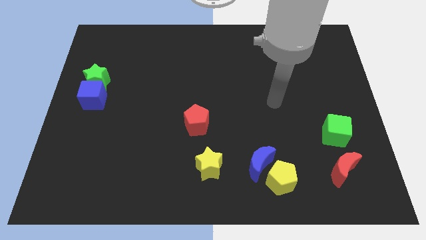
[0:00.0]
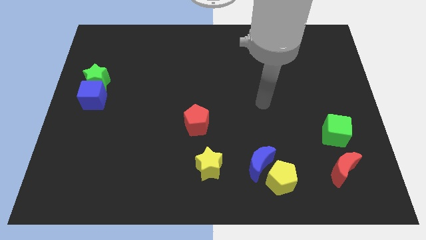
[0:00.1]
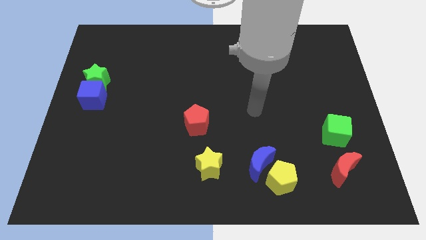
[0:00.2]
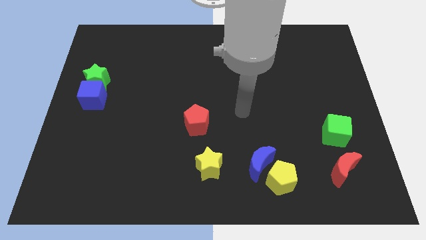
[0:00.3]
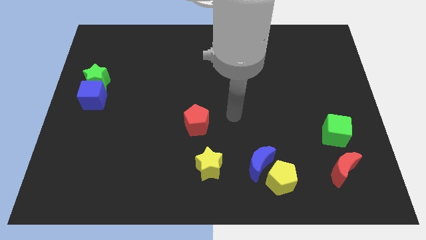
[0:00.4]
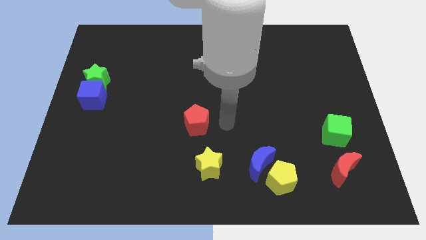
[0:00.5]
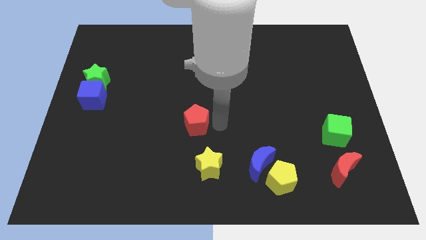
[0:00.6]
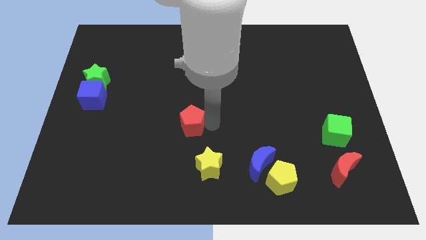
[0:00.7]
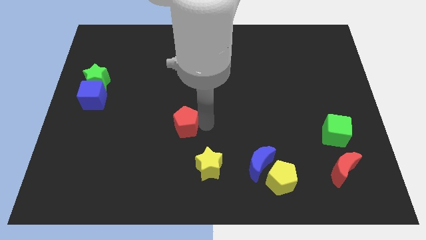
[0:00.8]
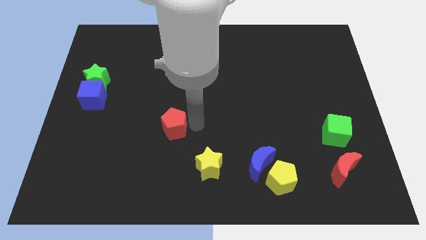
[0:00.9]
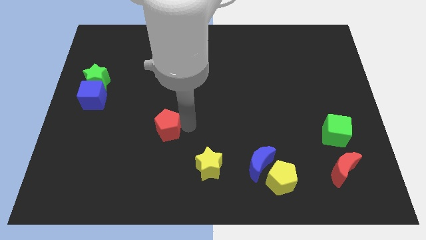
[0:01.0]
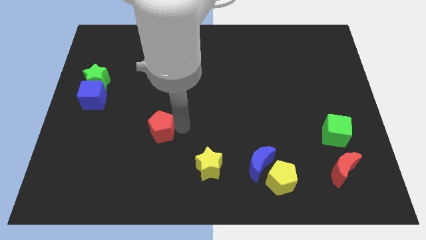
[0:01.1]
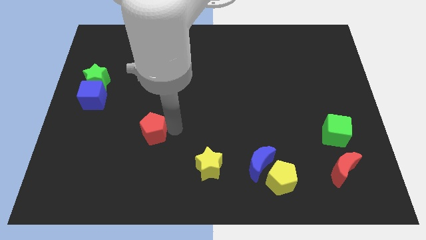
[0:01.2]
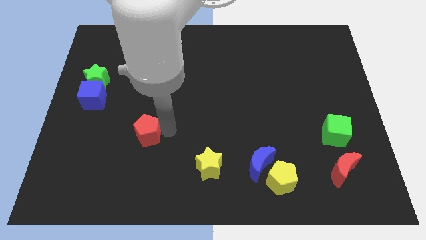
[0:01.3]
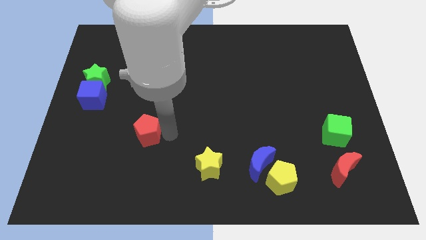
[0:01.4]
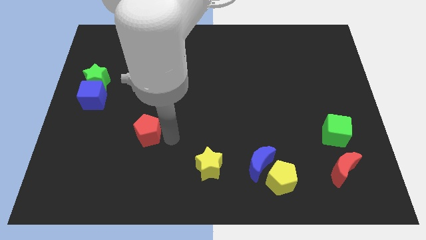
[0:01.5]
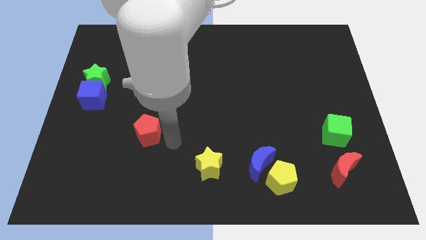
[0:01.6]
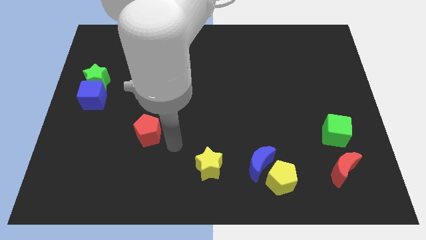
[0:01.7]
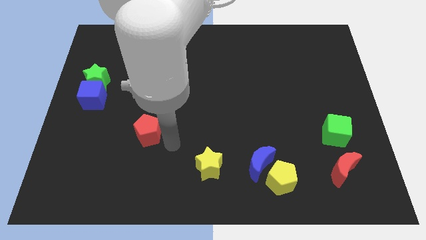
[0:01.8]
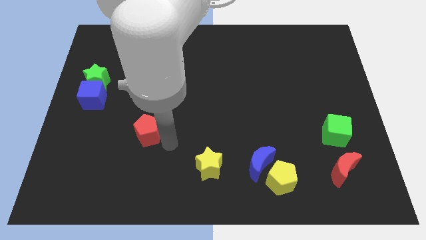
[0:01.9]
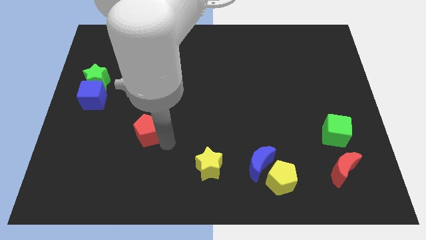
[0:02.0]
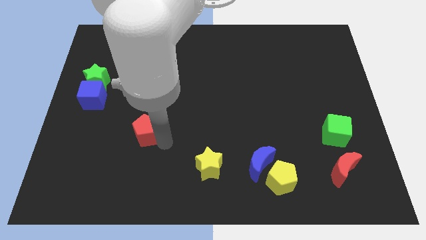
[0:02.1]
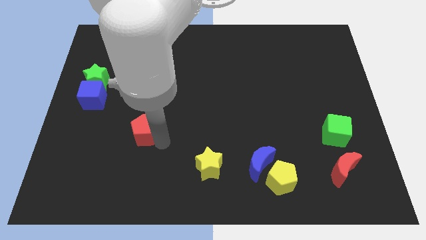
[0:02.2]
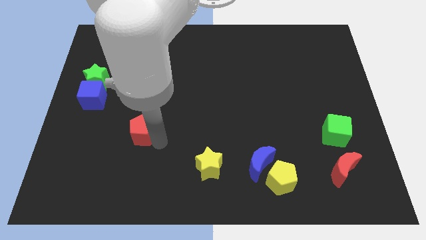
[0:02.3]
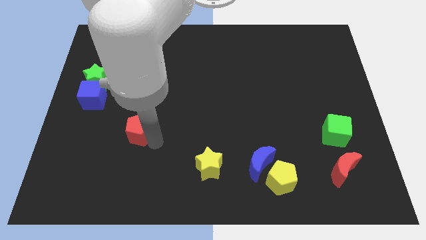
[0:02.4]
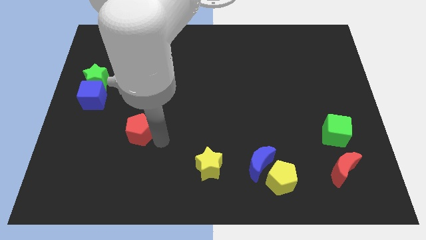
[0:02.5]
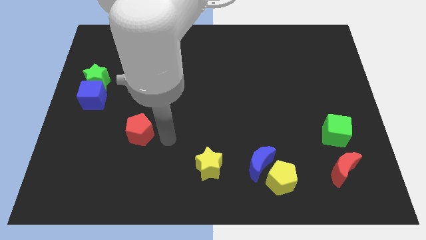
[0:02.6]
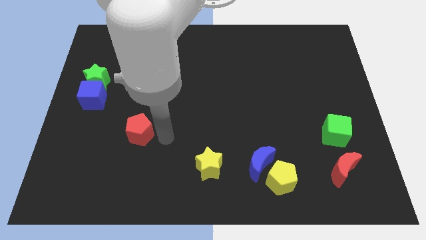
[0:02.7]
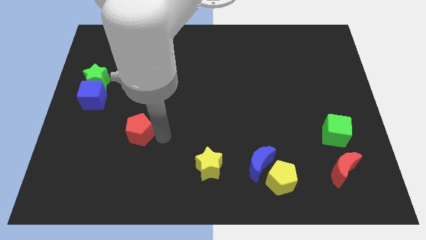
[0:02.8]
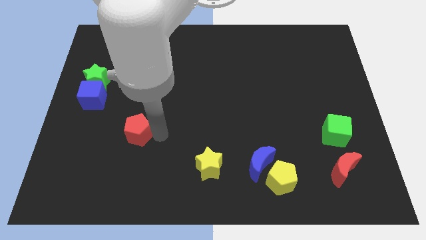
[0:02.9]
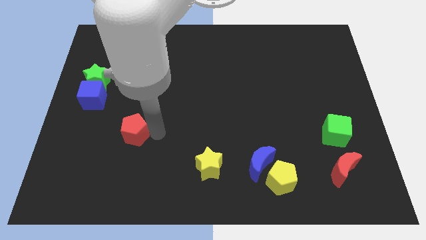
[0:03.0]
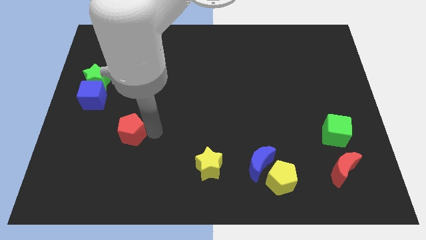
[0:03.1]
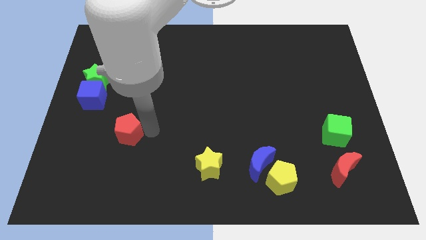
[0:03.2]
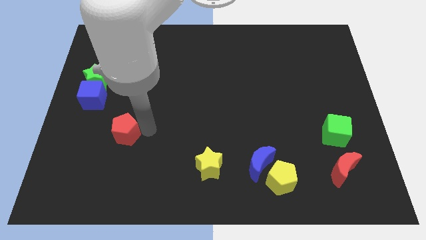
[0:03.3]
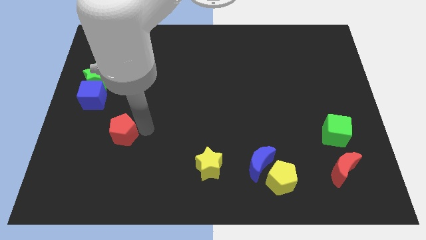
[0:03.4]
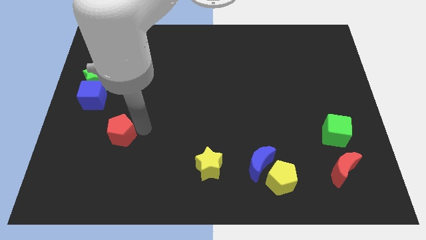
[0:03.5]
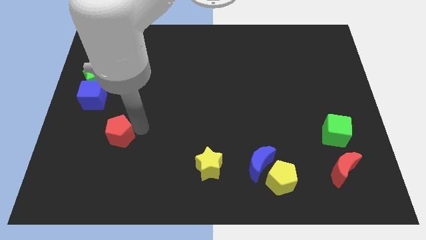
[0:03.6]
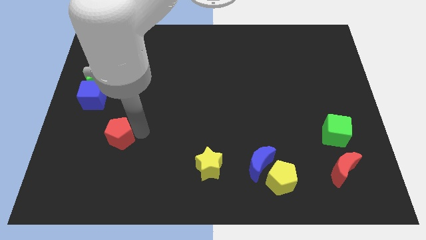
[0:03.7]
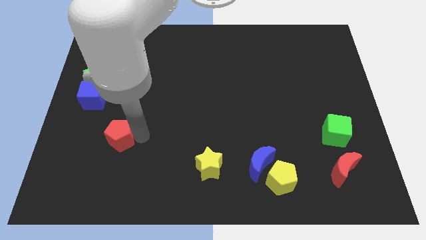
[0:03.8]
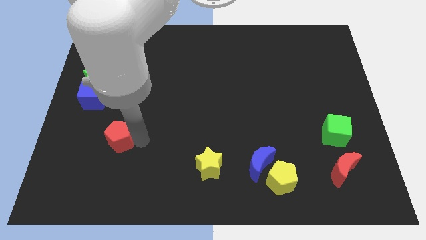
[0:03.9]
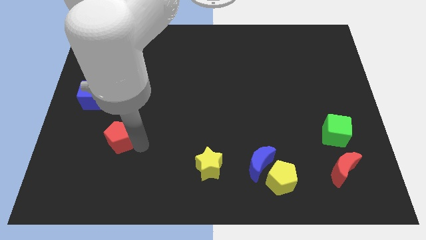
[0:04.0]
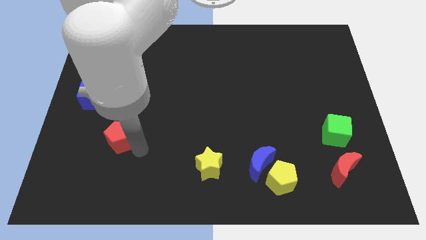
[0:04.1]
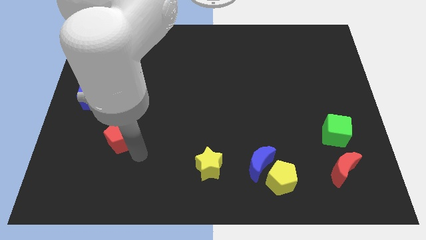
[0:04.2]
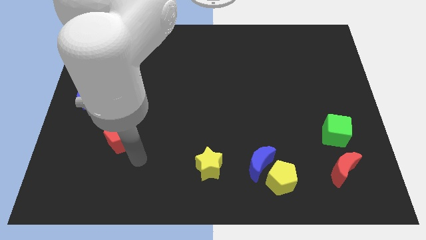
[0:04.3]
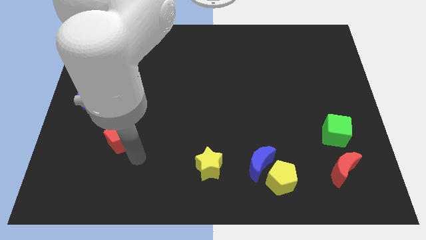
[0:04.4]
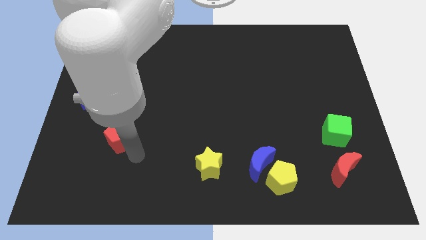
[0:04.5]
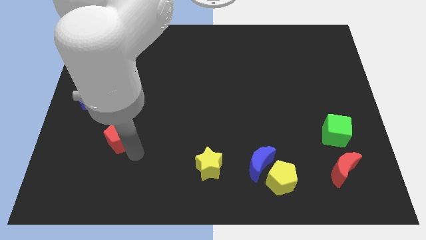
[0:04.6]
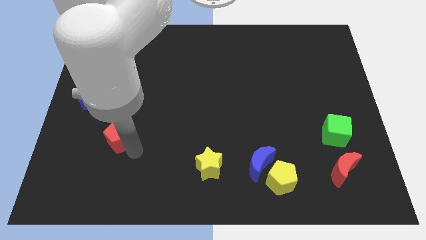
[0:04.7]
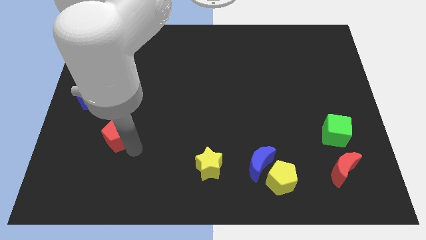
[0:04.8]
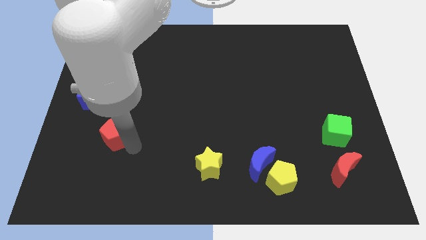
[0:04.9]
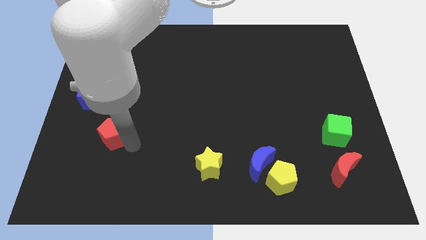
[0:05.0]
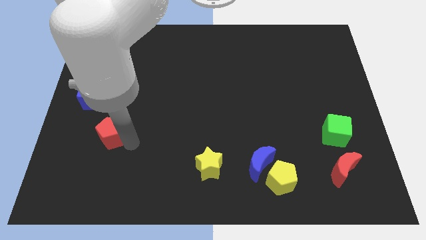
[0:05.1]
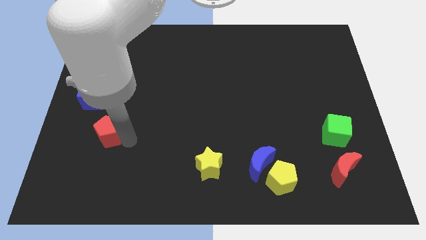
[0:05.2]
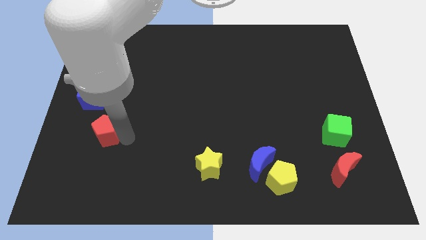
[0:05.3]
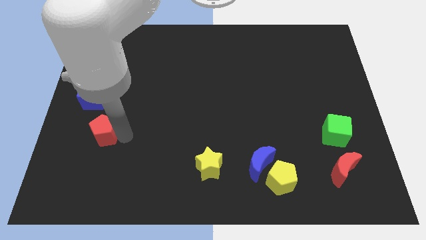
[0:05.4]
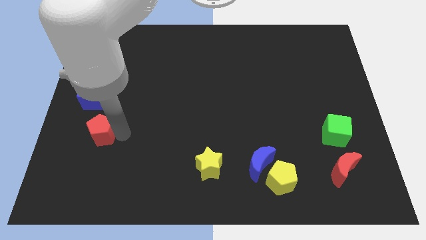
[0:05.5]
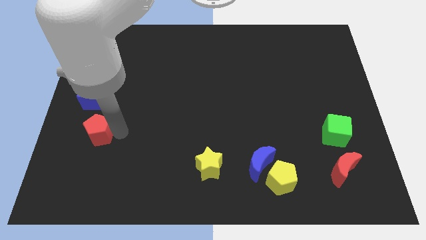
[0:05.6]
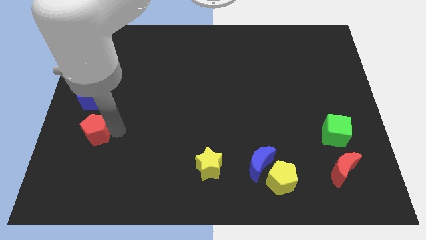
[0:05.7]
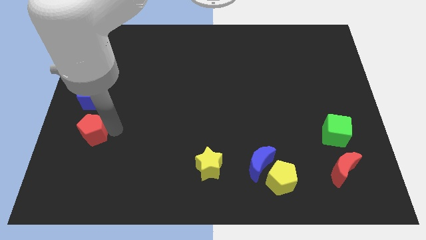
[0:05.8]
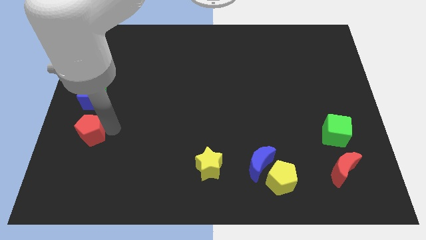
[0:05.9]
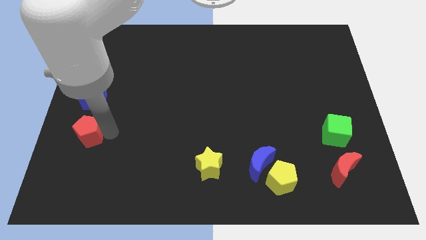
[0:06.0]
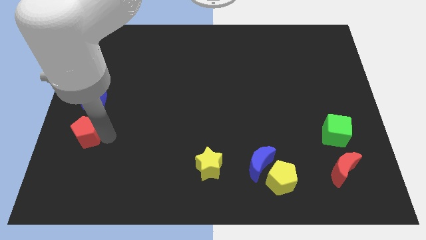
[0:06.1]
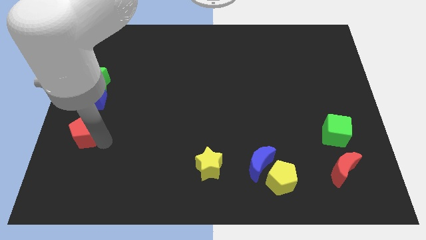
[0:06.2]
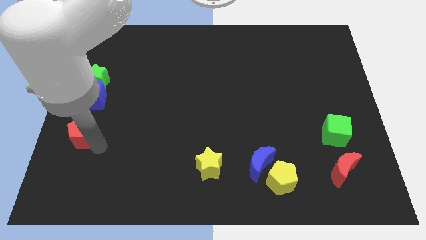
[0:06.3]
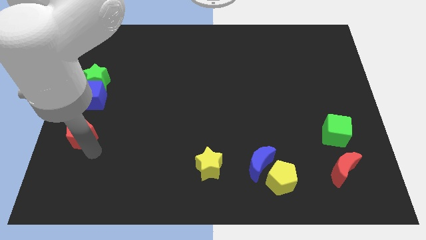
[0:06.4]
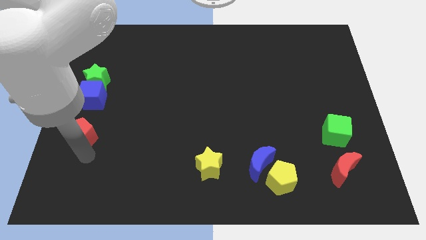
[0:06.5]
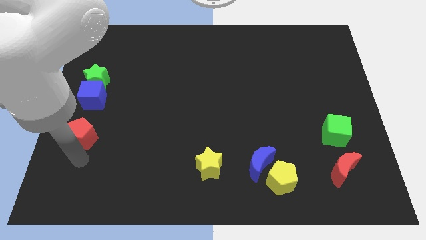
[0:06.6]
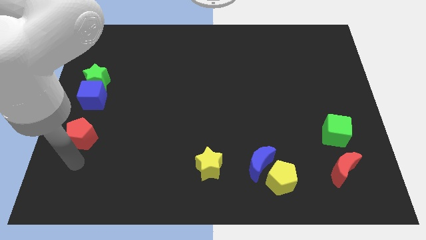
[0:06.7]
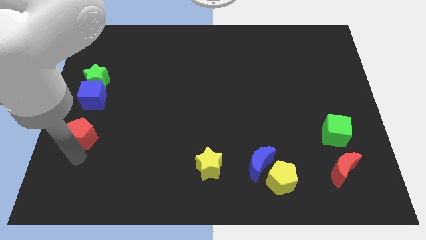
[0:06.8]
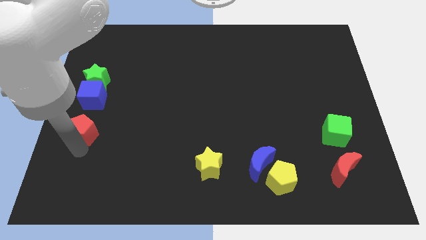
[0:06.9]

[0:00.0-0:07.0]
move the red pentagon to the left side

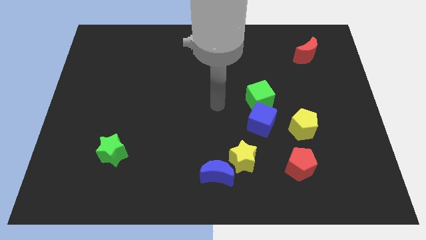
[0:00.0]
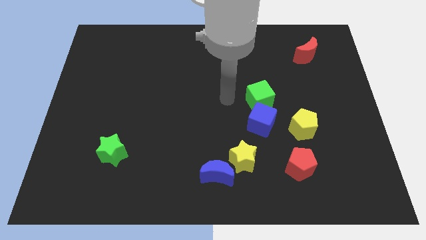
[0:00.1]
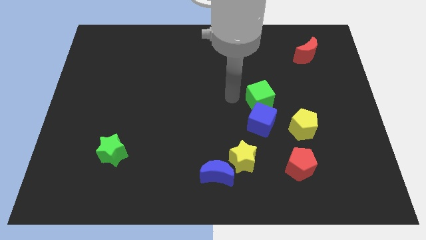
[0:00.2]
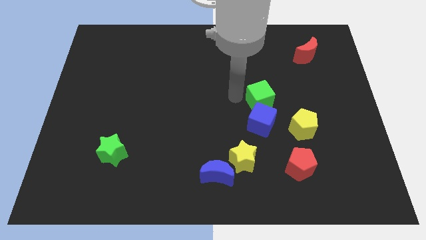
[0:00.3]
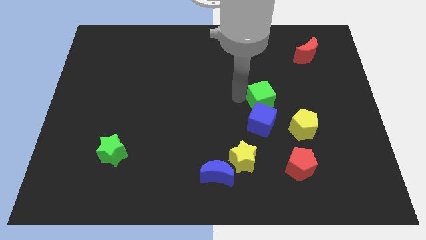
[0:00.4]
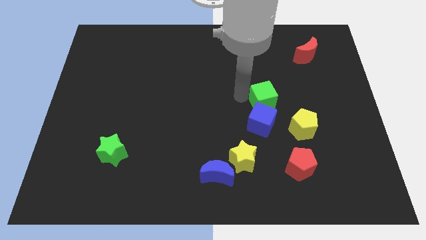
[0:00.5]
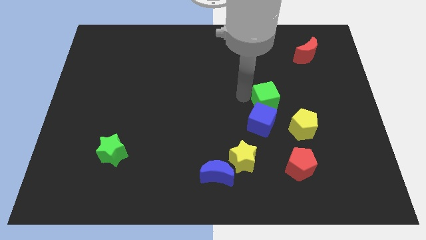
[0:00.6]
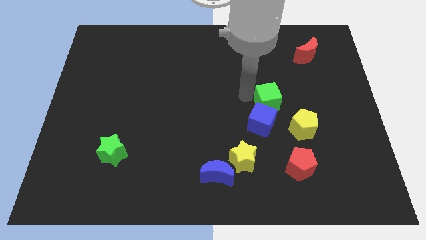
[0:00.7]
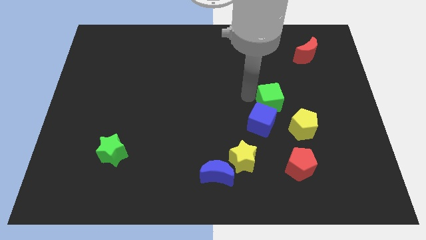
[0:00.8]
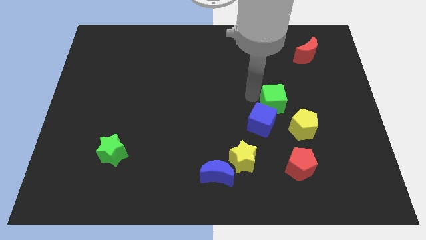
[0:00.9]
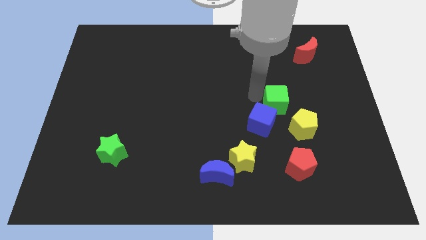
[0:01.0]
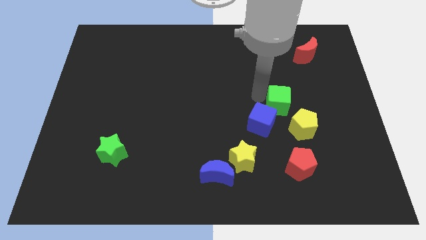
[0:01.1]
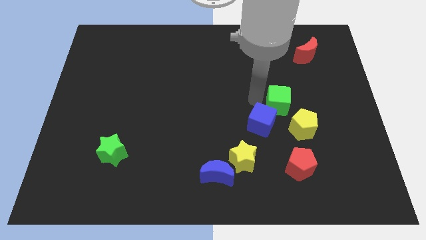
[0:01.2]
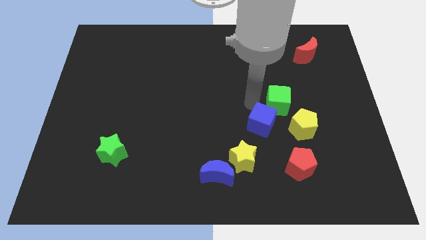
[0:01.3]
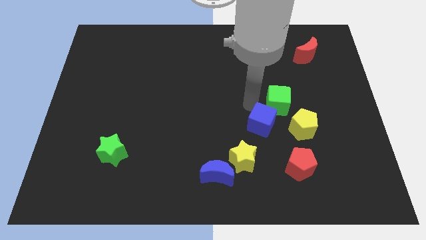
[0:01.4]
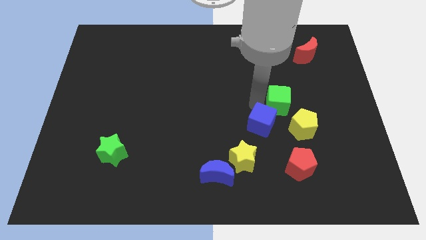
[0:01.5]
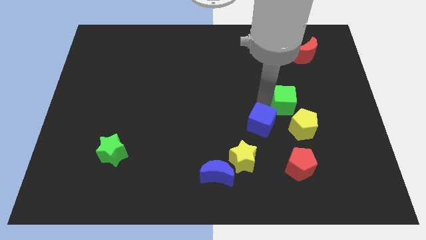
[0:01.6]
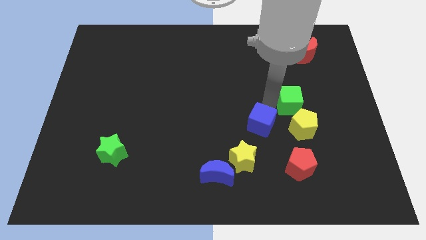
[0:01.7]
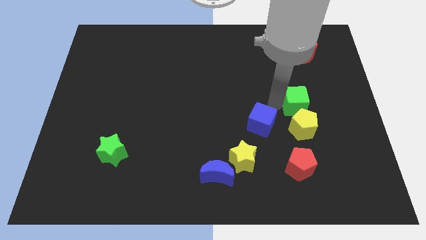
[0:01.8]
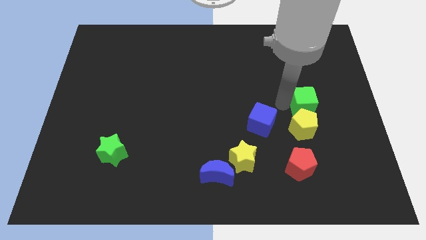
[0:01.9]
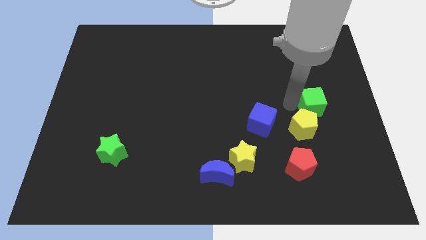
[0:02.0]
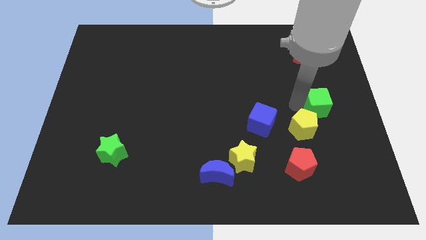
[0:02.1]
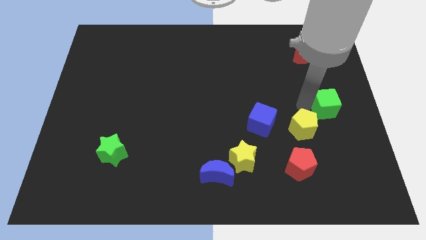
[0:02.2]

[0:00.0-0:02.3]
move the green cube to the center right
